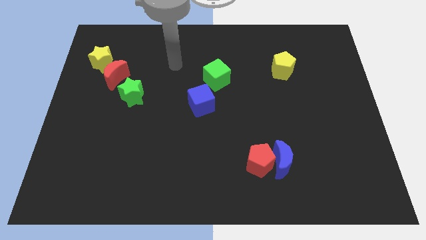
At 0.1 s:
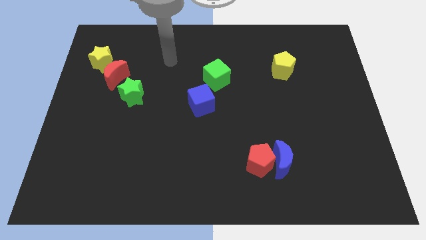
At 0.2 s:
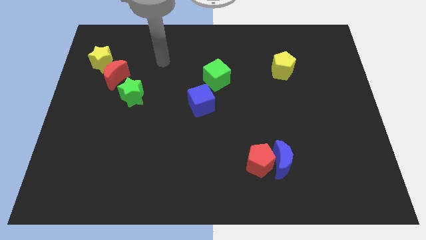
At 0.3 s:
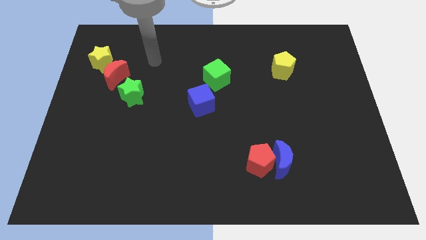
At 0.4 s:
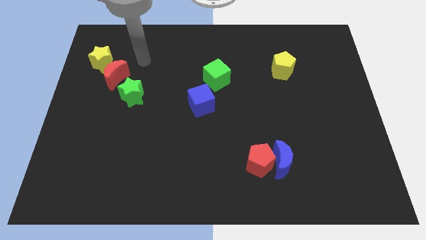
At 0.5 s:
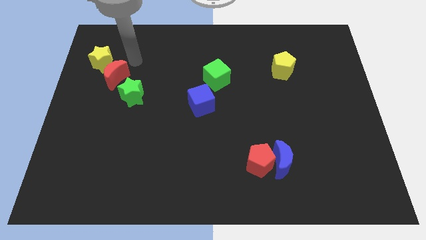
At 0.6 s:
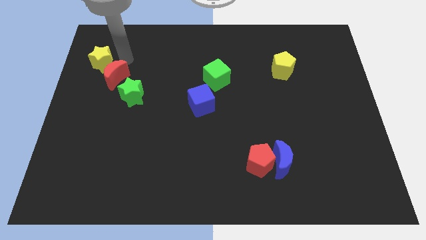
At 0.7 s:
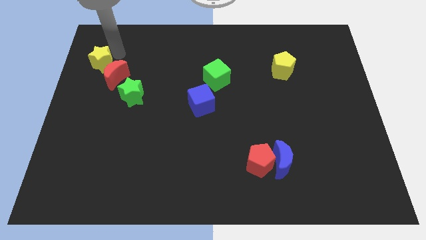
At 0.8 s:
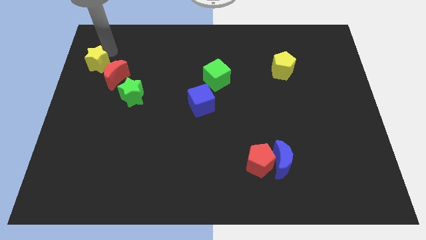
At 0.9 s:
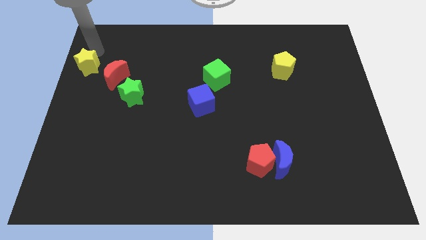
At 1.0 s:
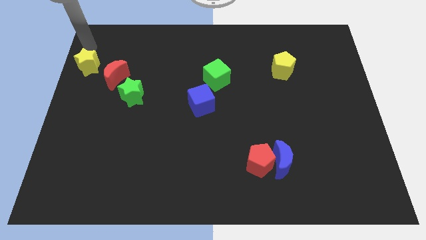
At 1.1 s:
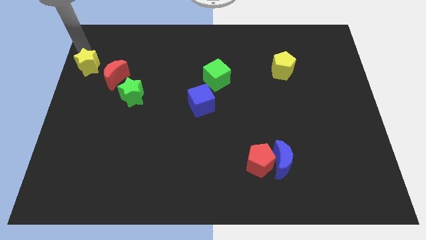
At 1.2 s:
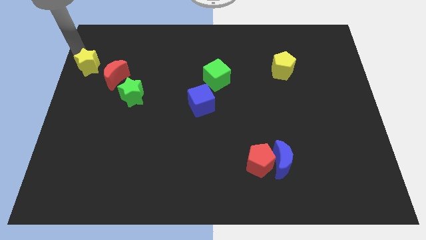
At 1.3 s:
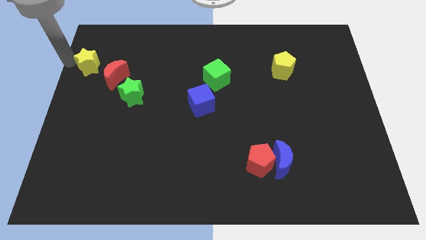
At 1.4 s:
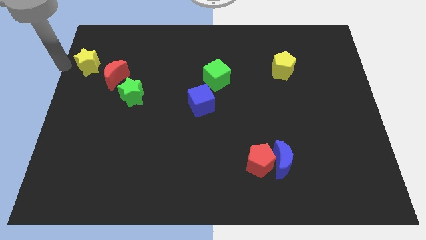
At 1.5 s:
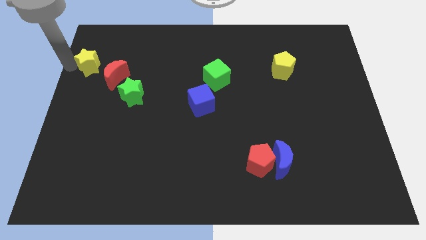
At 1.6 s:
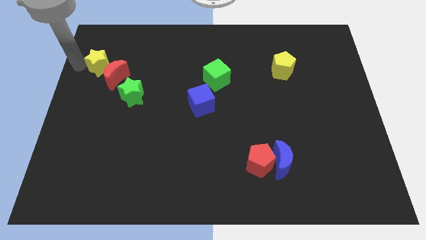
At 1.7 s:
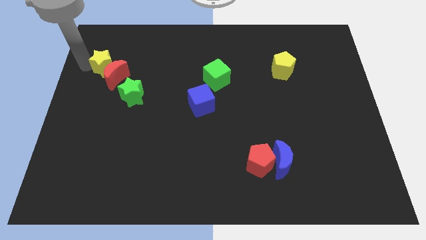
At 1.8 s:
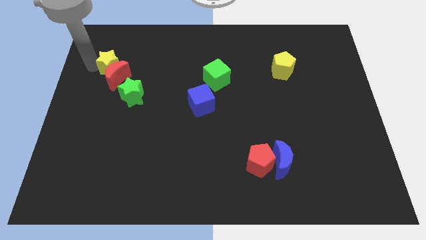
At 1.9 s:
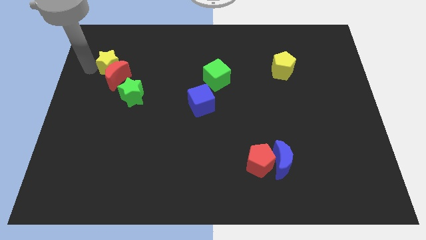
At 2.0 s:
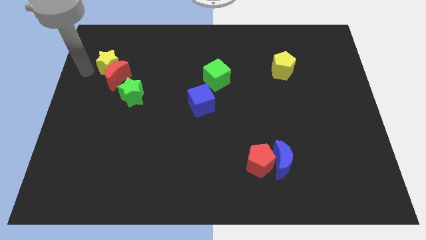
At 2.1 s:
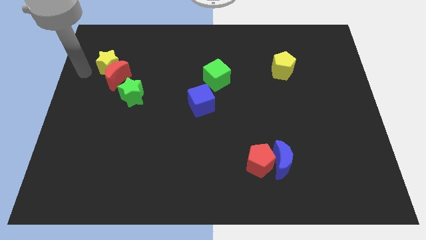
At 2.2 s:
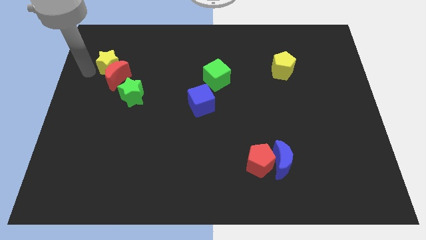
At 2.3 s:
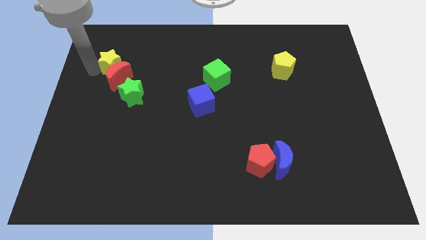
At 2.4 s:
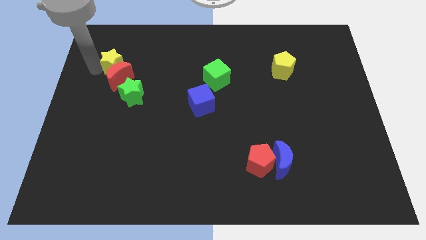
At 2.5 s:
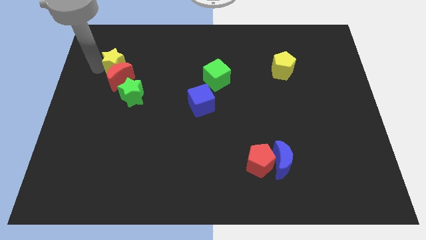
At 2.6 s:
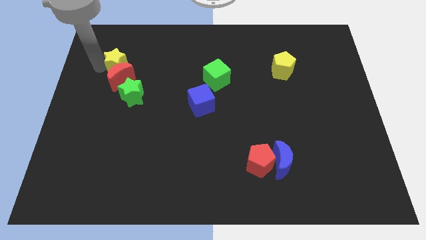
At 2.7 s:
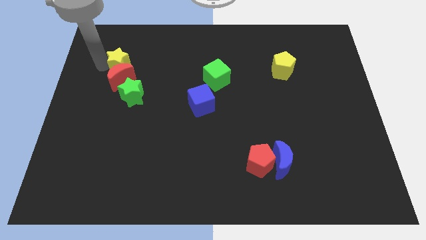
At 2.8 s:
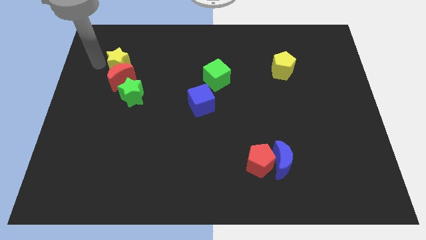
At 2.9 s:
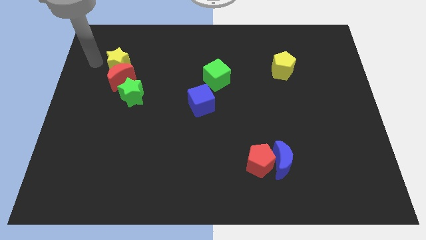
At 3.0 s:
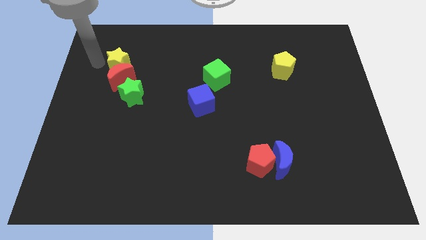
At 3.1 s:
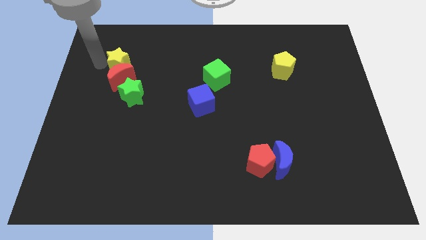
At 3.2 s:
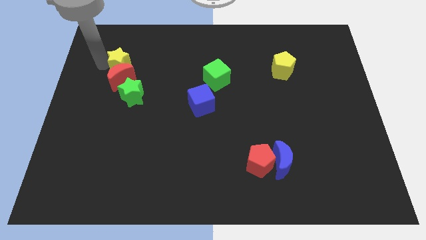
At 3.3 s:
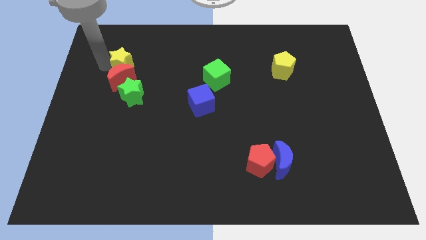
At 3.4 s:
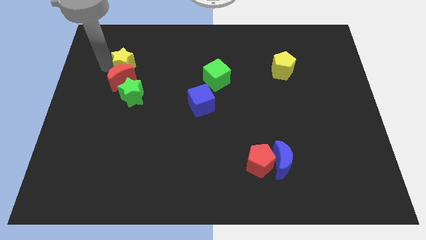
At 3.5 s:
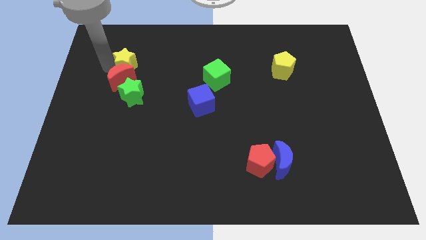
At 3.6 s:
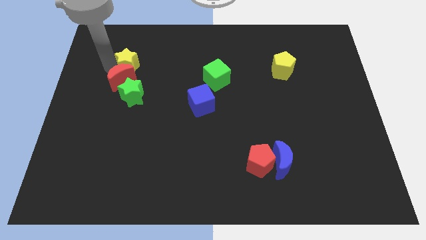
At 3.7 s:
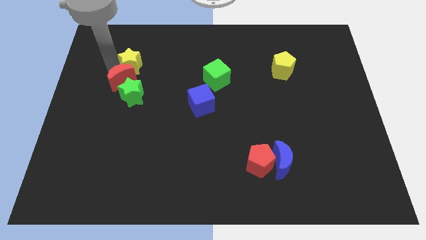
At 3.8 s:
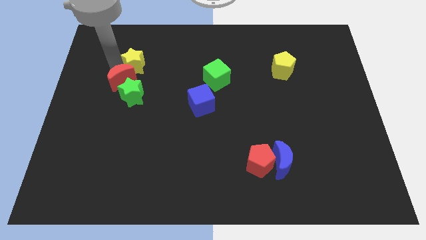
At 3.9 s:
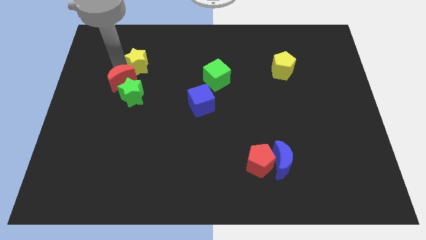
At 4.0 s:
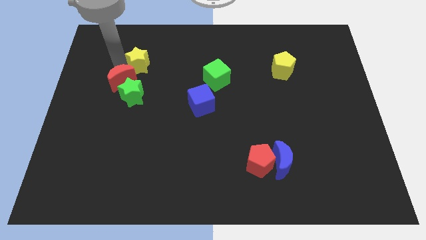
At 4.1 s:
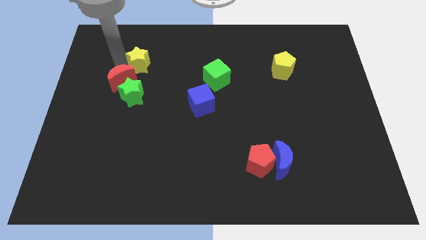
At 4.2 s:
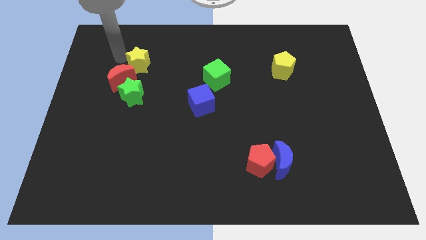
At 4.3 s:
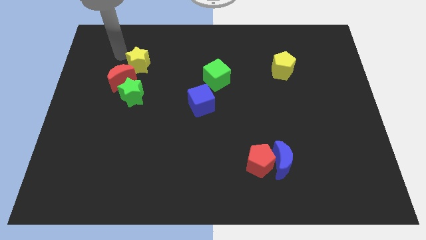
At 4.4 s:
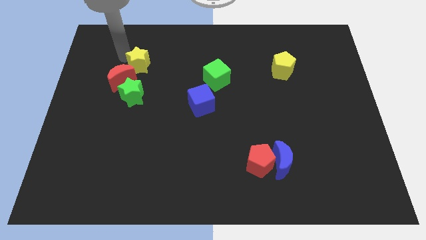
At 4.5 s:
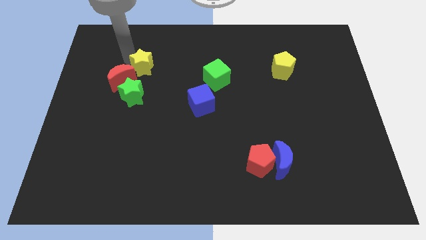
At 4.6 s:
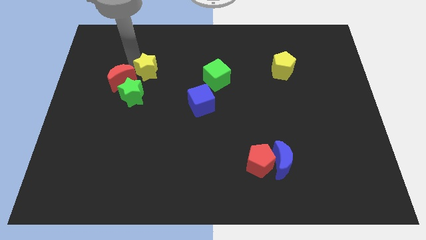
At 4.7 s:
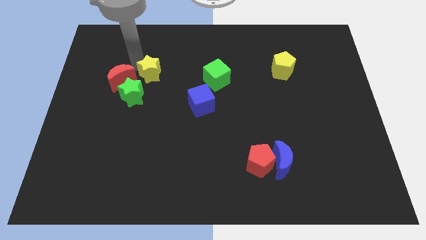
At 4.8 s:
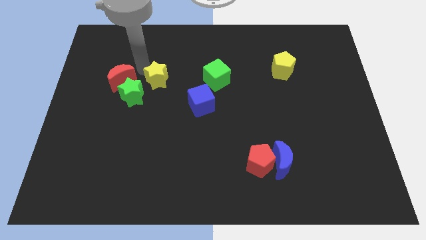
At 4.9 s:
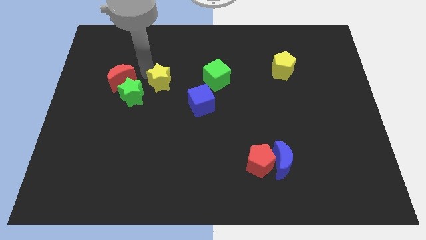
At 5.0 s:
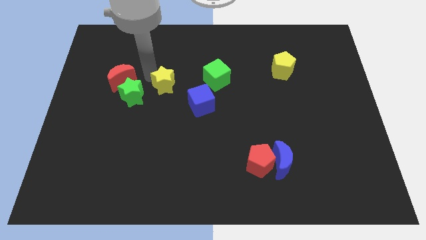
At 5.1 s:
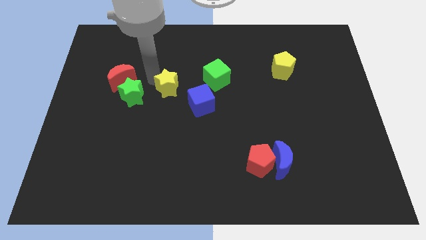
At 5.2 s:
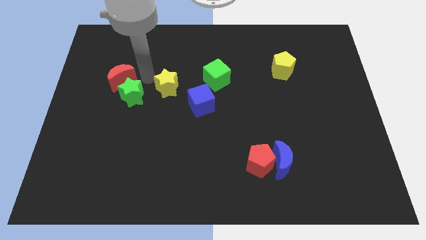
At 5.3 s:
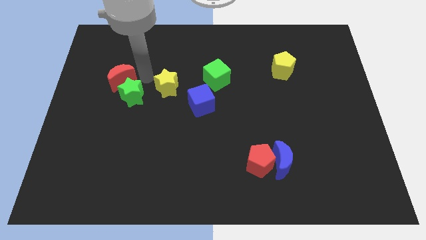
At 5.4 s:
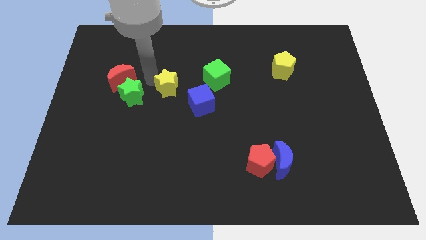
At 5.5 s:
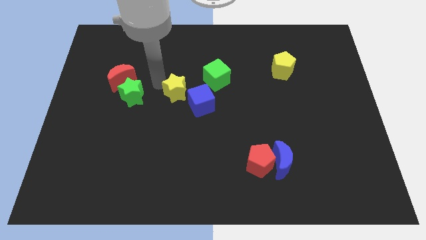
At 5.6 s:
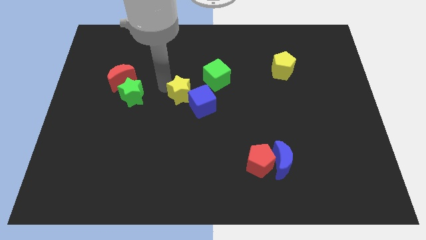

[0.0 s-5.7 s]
slide the yellow star towards the blue cube

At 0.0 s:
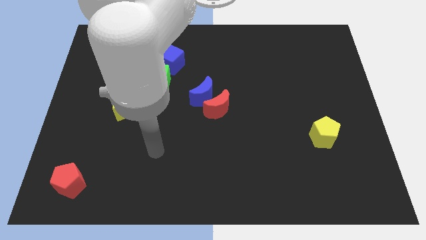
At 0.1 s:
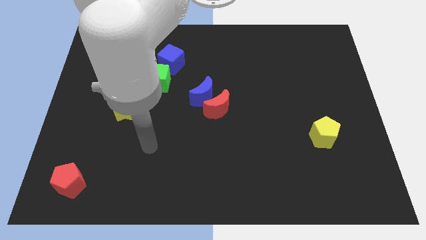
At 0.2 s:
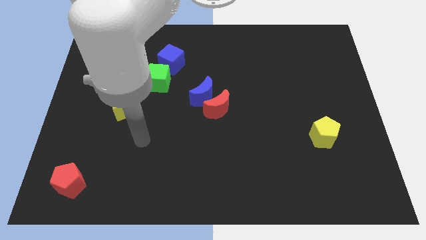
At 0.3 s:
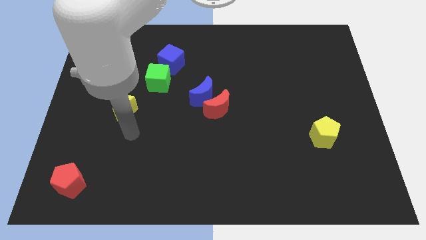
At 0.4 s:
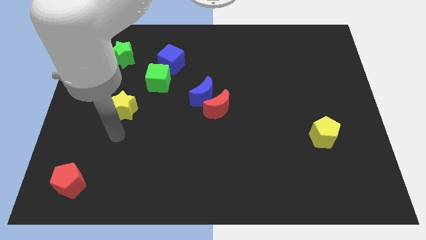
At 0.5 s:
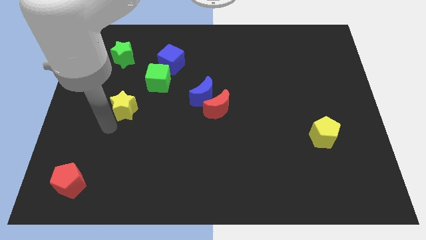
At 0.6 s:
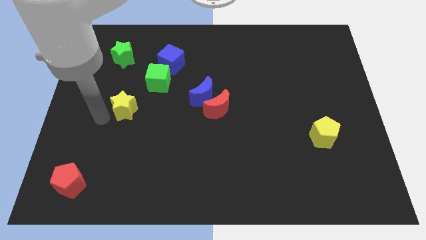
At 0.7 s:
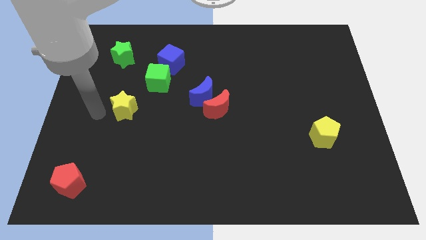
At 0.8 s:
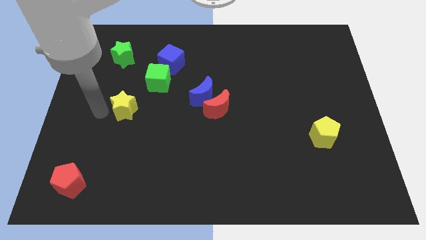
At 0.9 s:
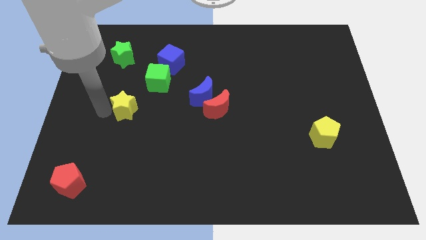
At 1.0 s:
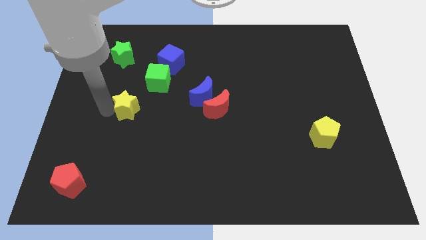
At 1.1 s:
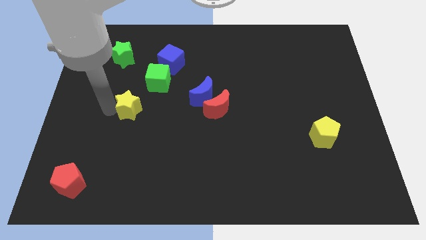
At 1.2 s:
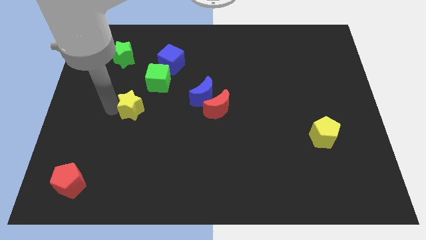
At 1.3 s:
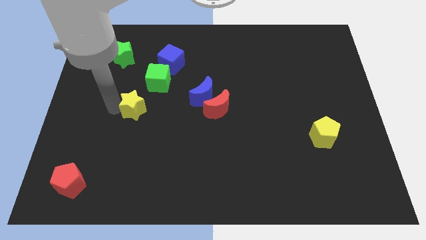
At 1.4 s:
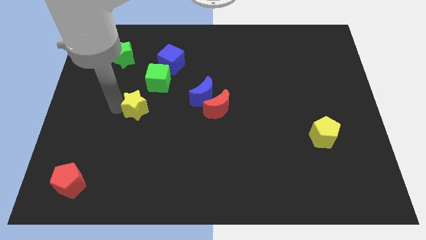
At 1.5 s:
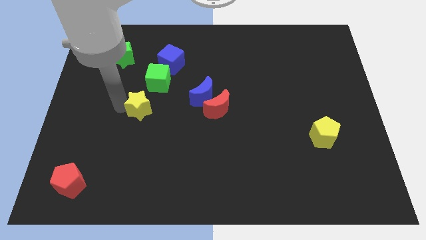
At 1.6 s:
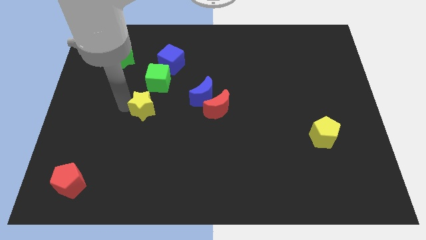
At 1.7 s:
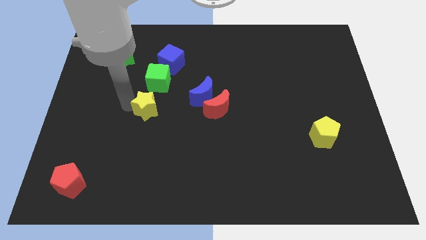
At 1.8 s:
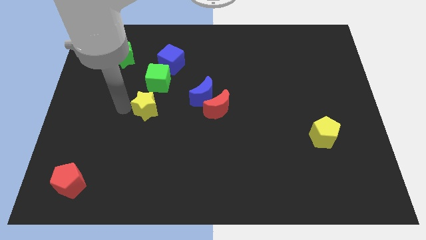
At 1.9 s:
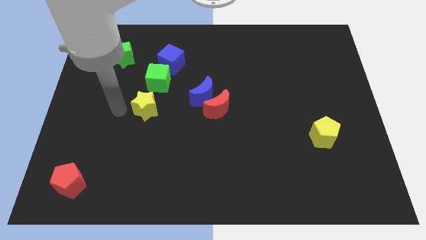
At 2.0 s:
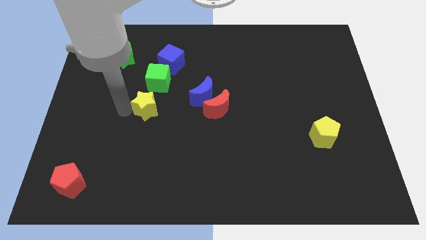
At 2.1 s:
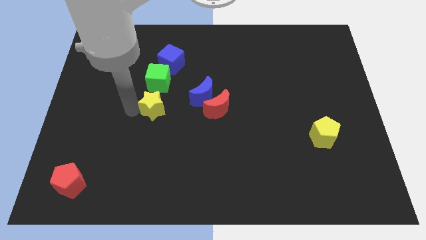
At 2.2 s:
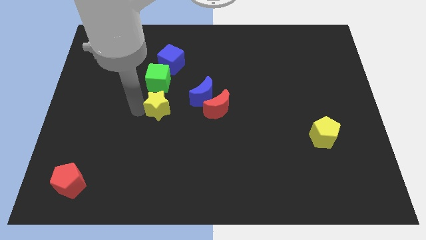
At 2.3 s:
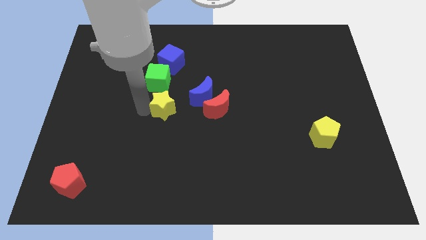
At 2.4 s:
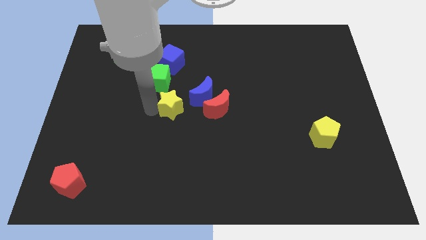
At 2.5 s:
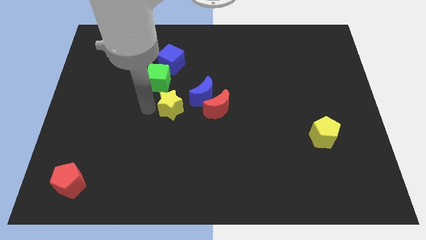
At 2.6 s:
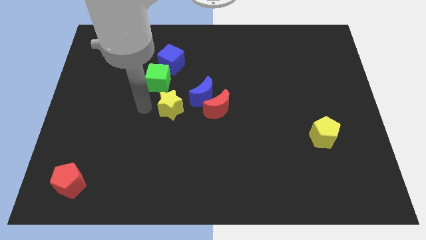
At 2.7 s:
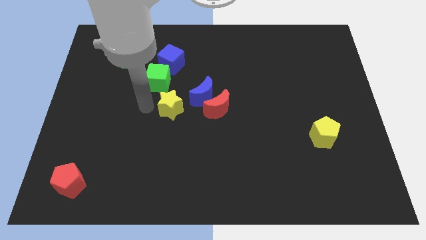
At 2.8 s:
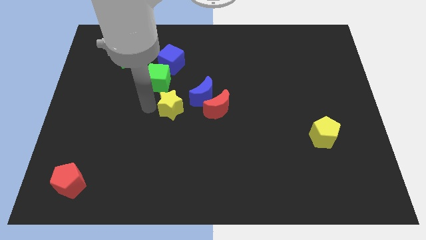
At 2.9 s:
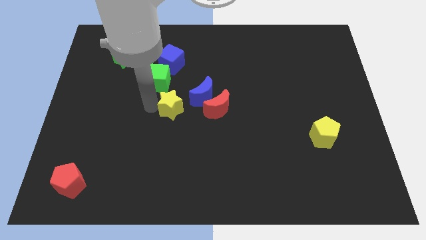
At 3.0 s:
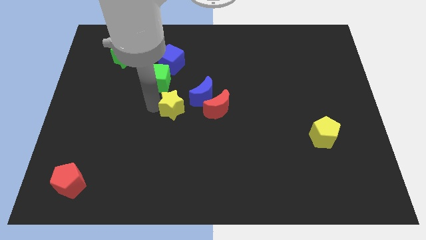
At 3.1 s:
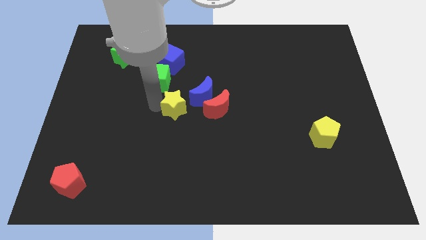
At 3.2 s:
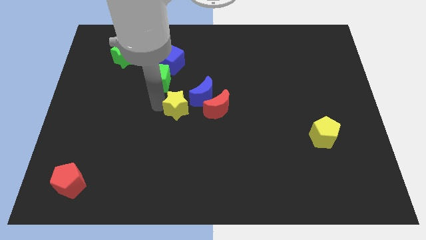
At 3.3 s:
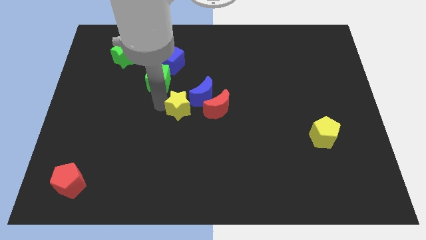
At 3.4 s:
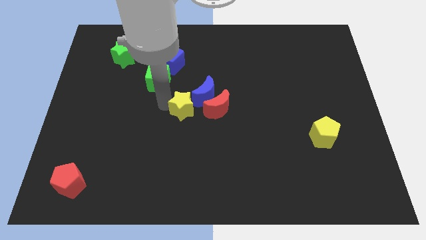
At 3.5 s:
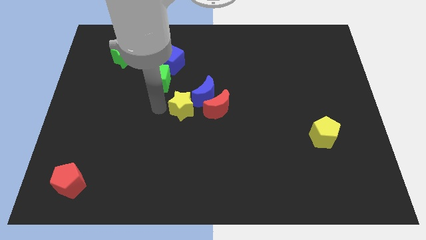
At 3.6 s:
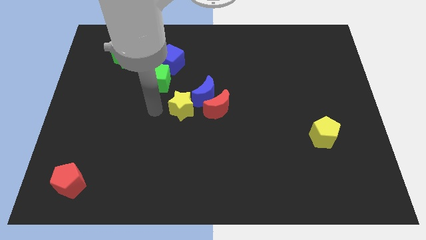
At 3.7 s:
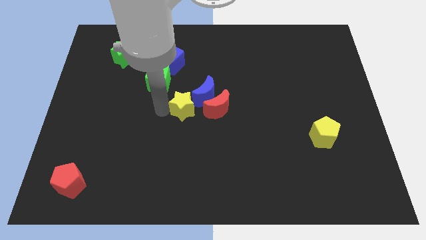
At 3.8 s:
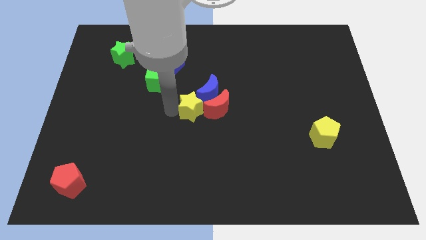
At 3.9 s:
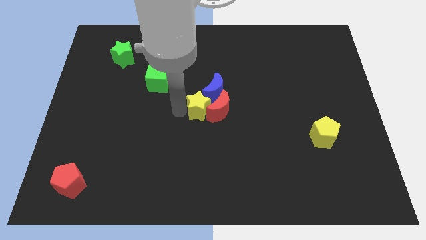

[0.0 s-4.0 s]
push the yellow star next to the red moon
